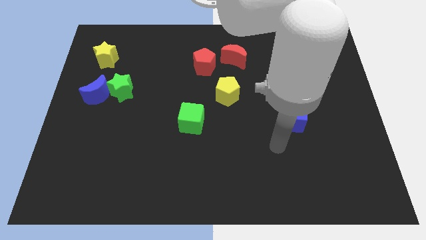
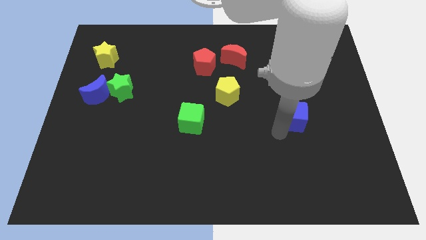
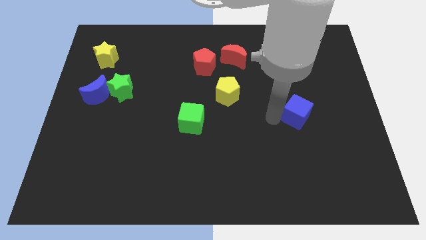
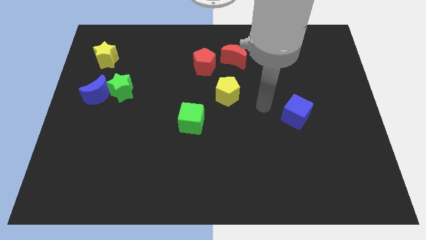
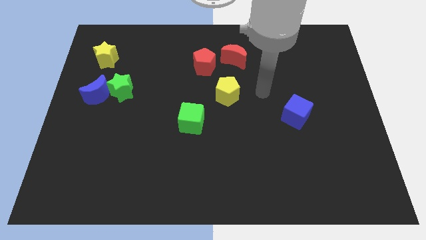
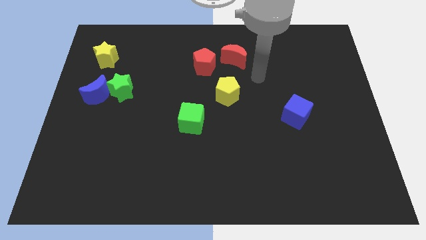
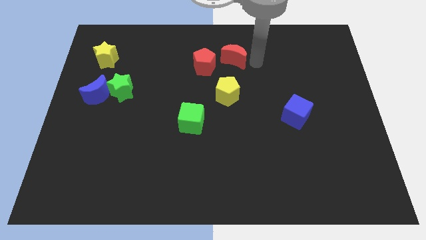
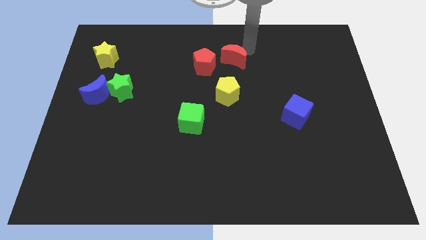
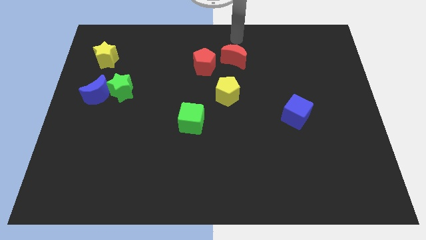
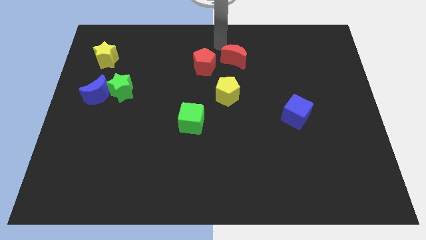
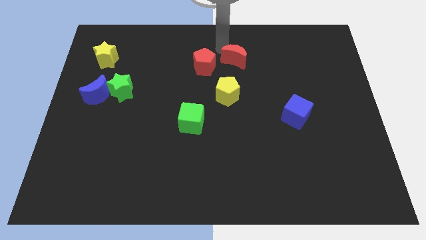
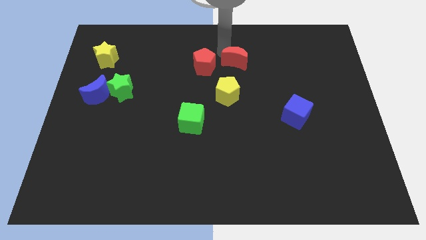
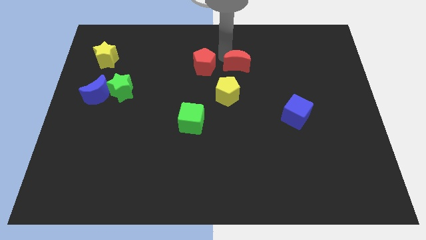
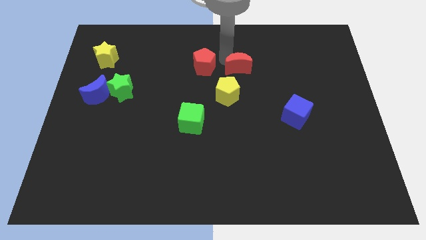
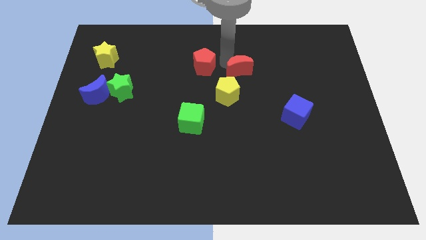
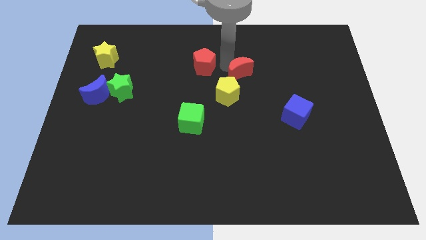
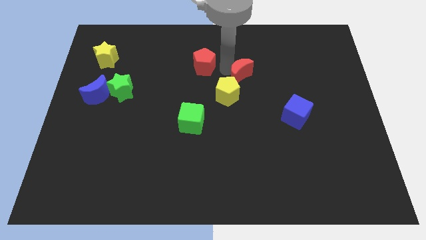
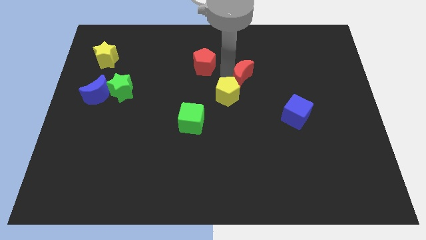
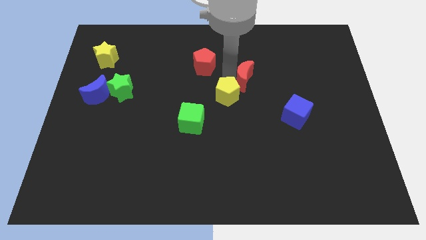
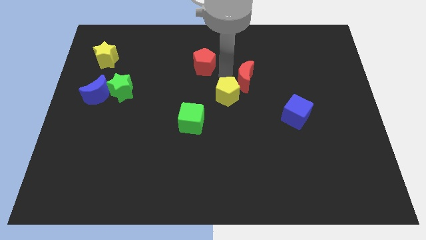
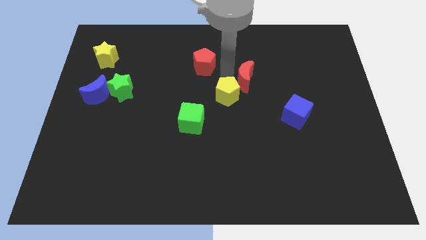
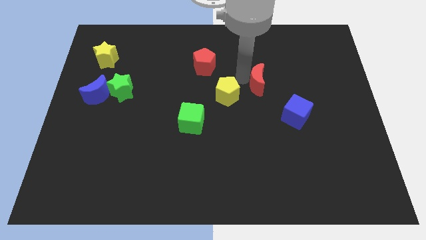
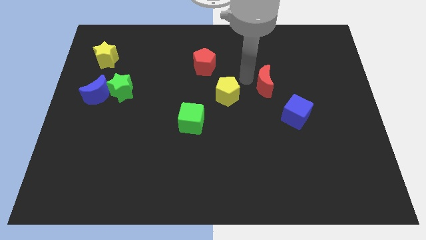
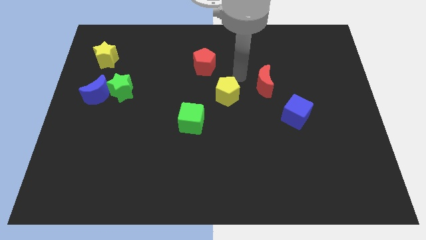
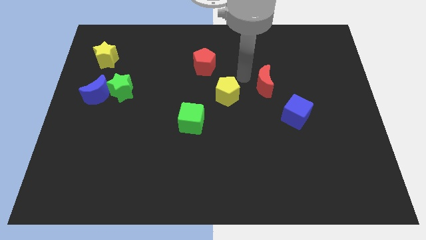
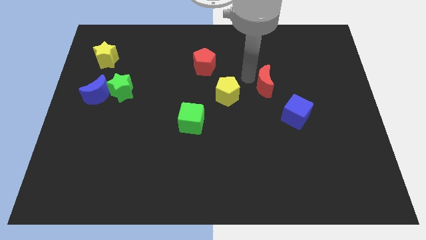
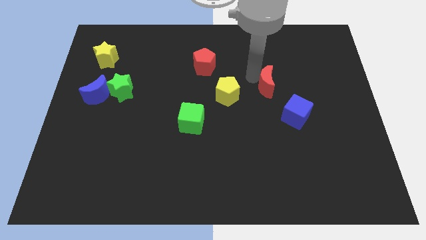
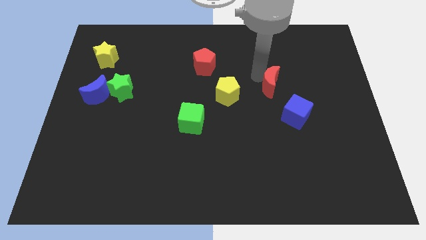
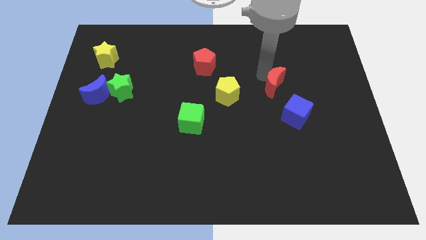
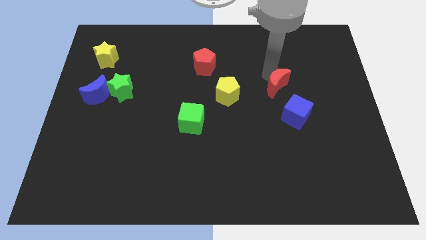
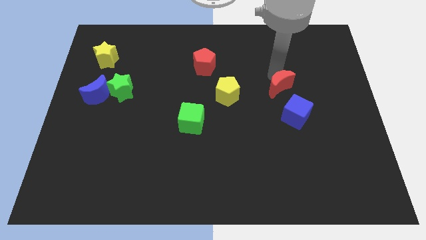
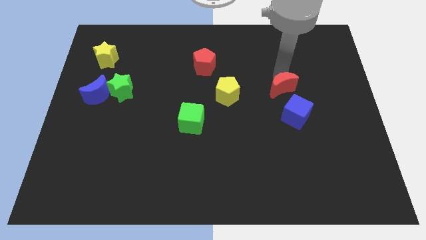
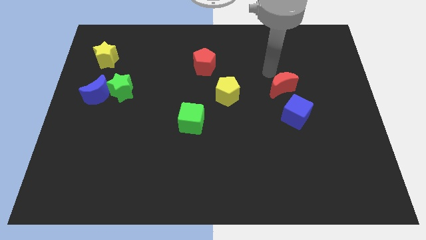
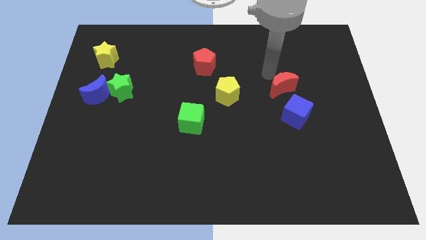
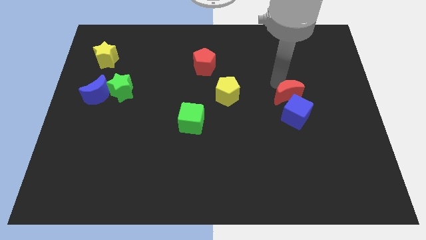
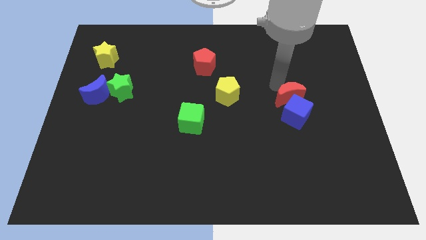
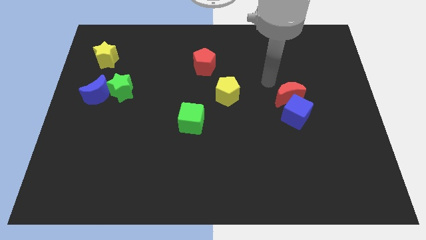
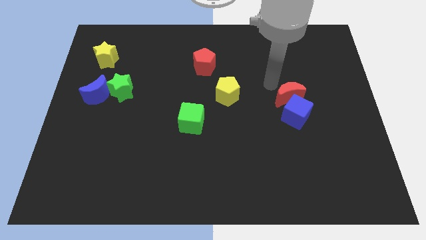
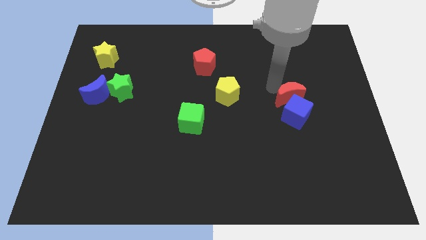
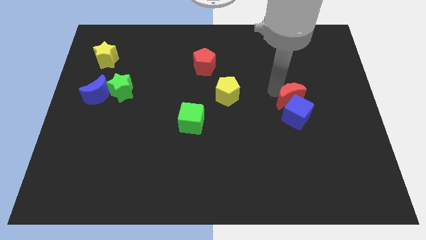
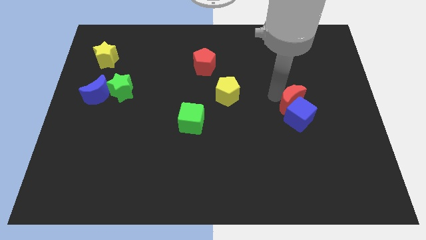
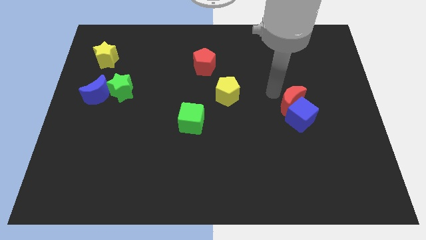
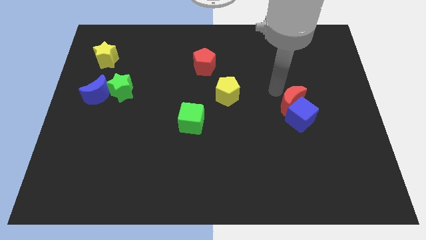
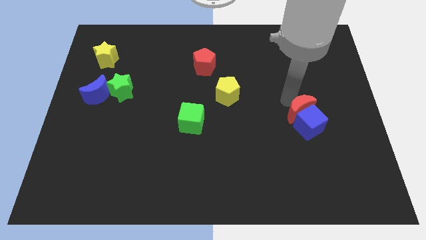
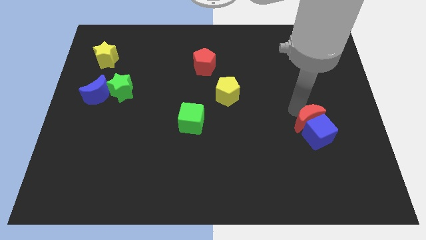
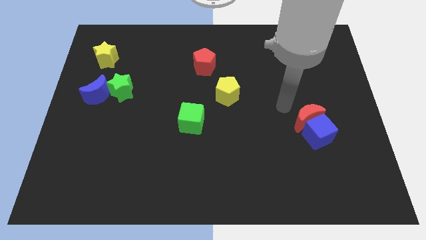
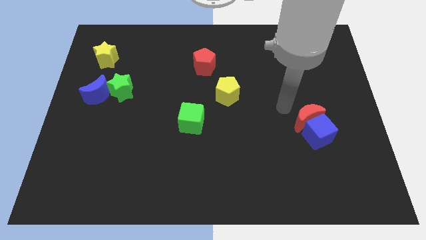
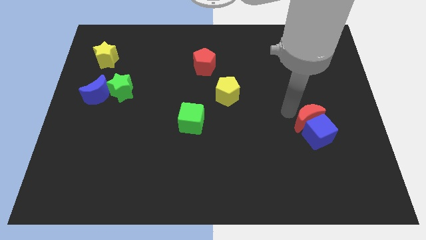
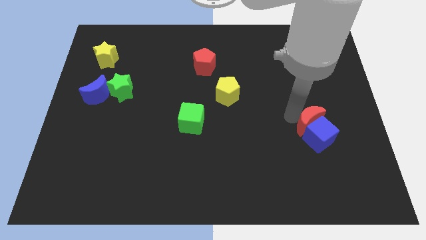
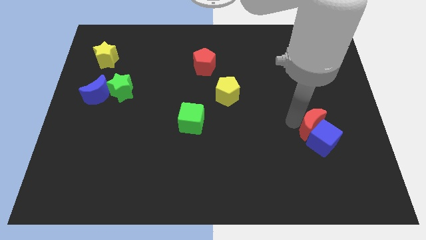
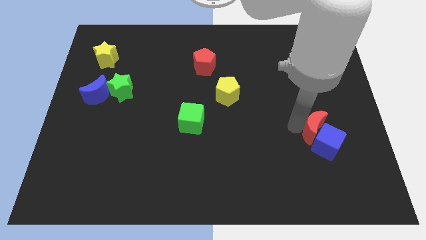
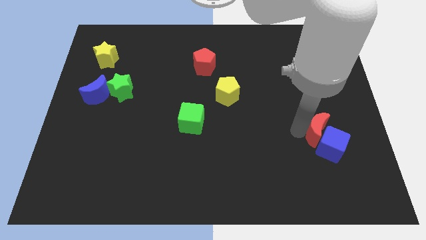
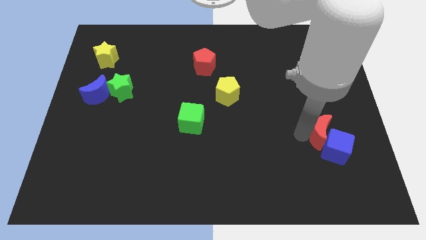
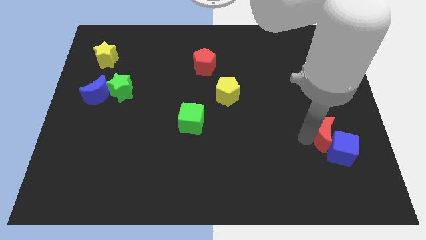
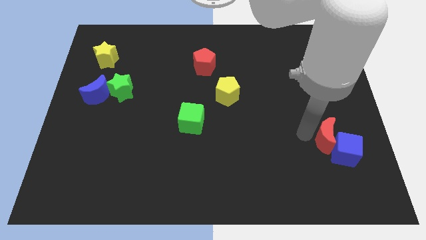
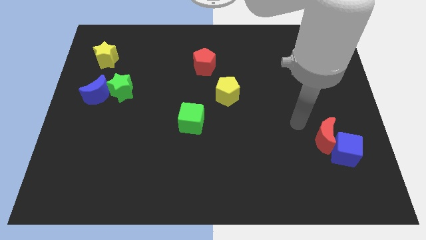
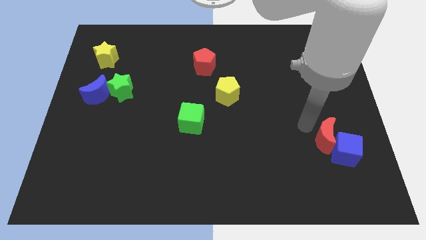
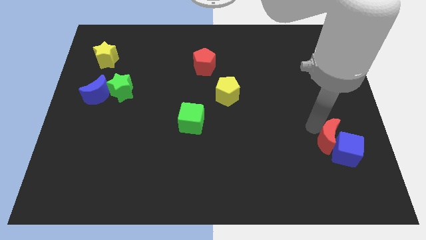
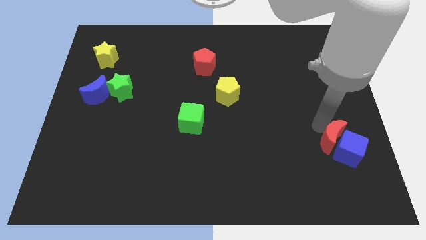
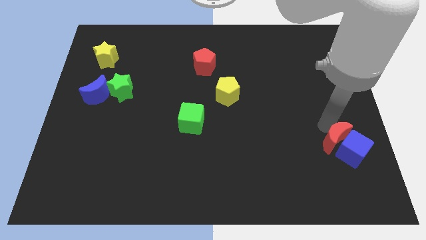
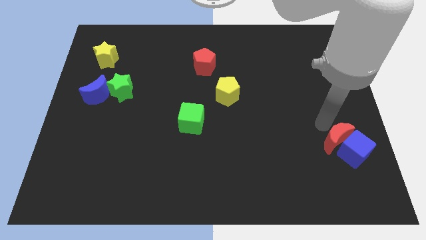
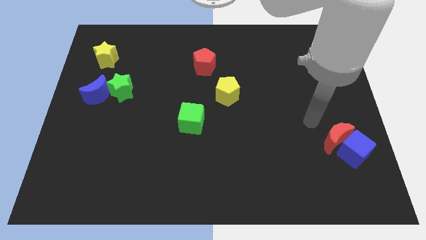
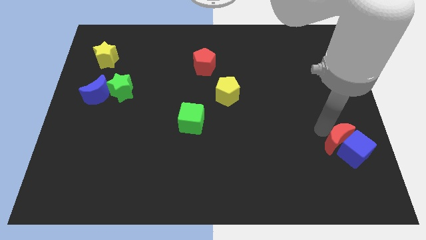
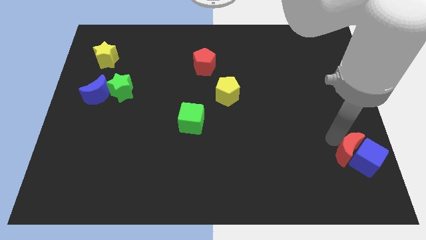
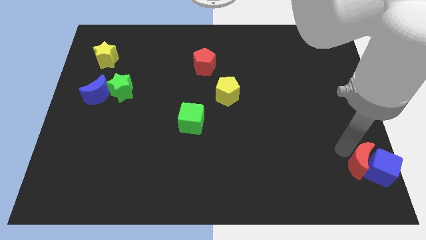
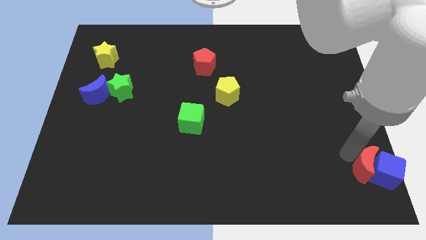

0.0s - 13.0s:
put the red moon to the bottom right
